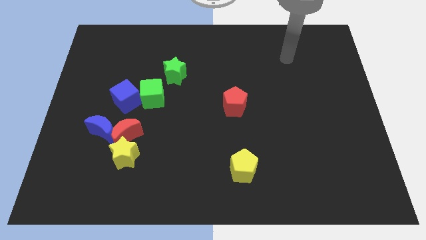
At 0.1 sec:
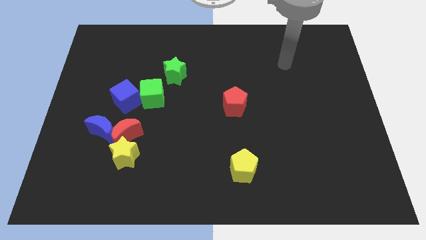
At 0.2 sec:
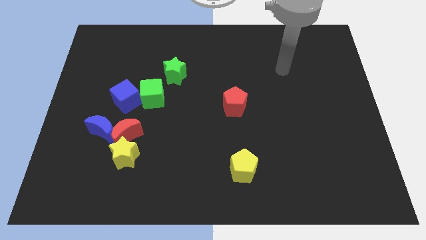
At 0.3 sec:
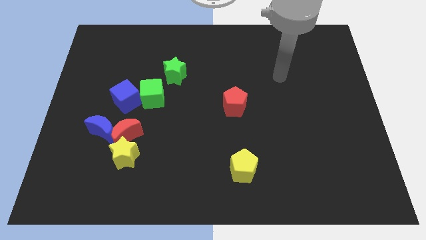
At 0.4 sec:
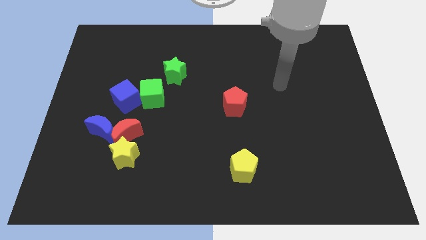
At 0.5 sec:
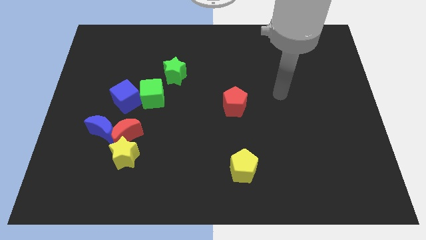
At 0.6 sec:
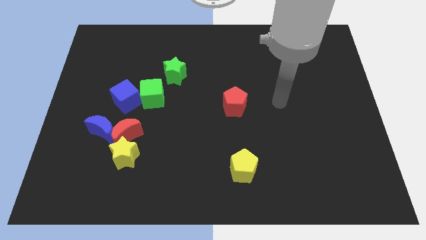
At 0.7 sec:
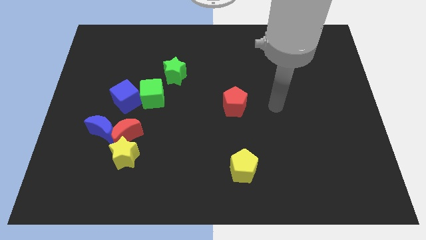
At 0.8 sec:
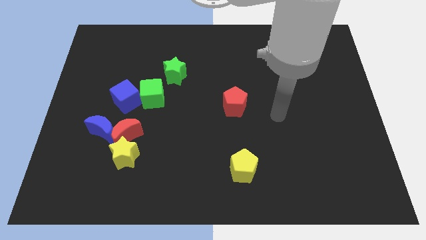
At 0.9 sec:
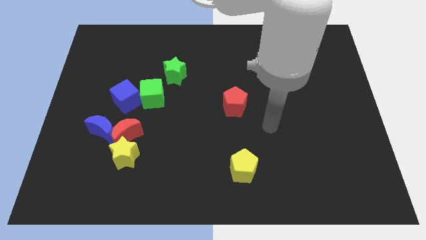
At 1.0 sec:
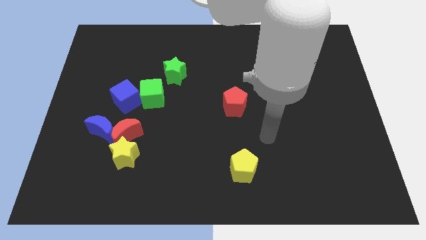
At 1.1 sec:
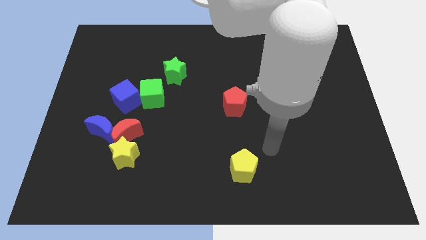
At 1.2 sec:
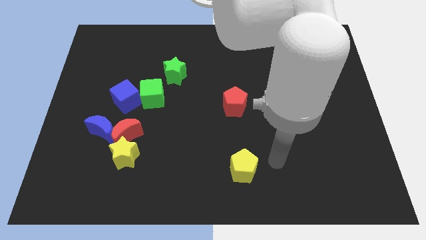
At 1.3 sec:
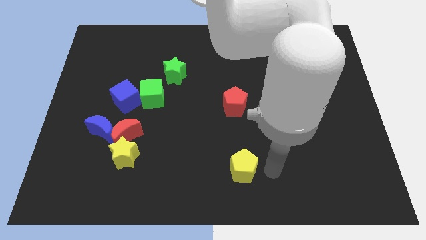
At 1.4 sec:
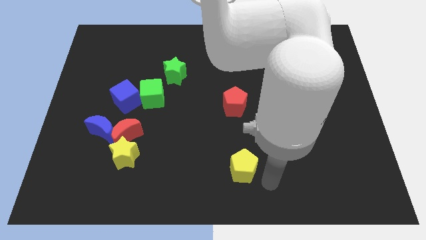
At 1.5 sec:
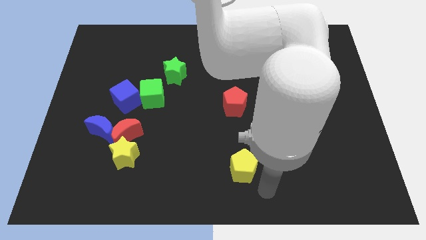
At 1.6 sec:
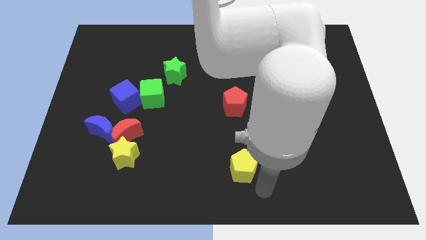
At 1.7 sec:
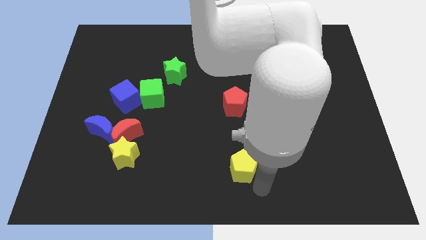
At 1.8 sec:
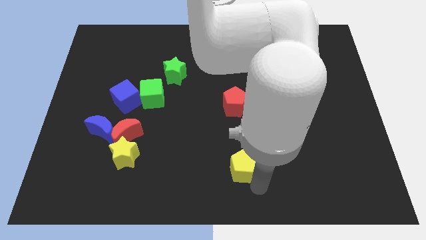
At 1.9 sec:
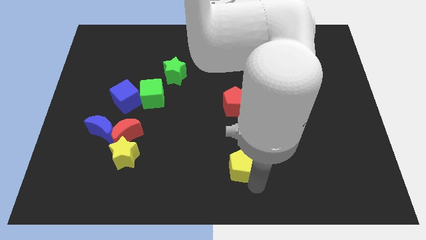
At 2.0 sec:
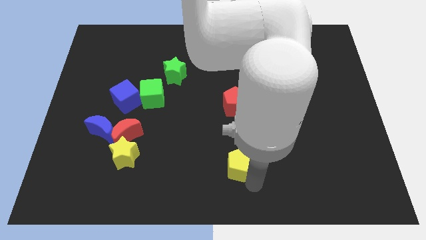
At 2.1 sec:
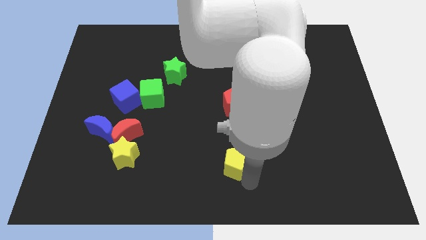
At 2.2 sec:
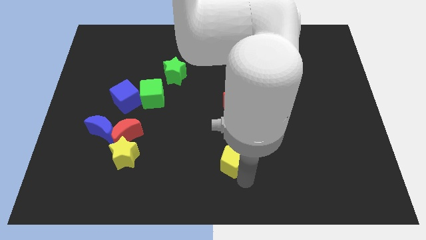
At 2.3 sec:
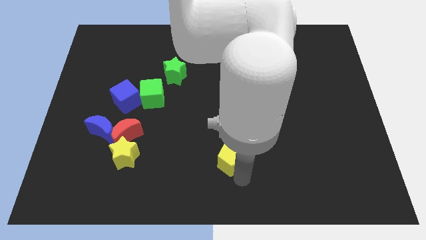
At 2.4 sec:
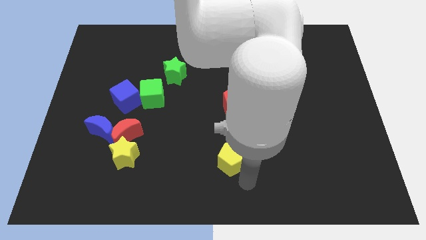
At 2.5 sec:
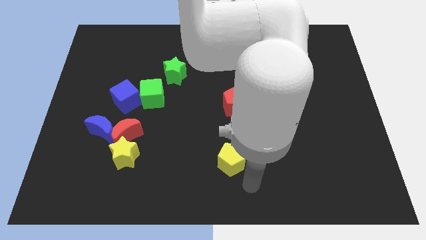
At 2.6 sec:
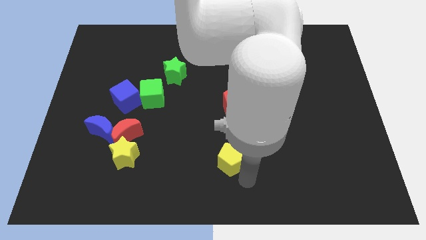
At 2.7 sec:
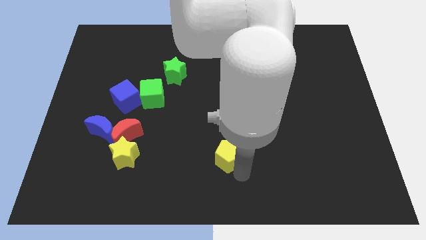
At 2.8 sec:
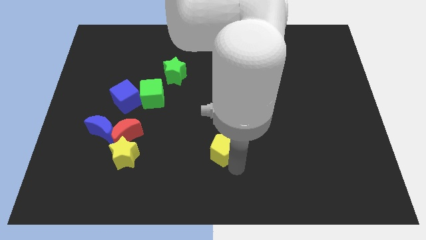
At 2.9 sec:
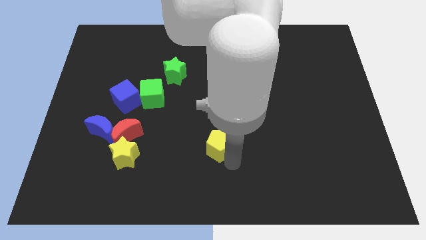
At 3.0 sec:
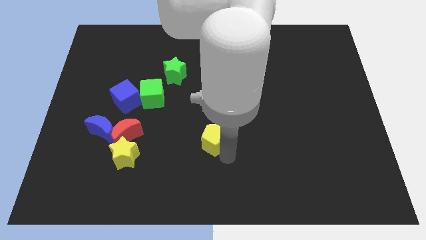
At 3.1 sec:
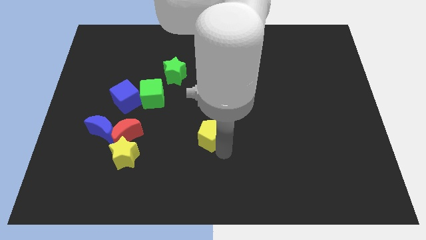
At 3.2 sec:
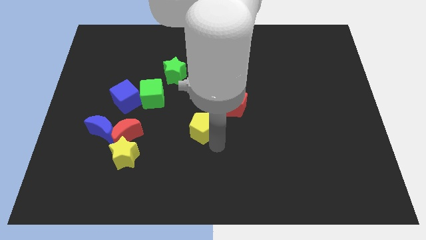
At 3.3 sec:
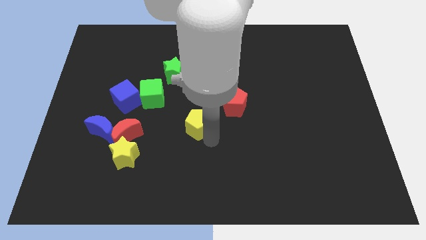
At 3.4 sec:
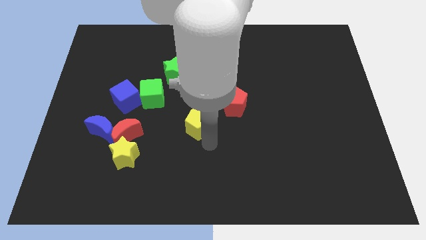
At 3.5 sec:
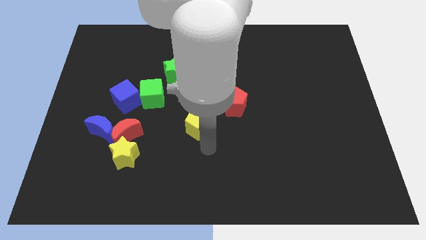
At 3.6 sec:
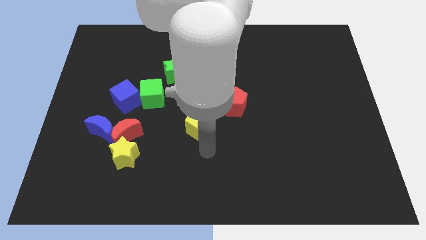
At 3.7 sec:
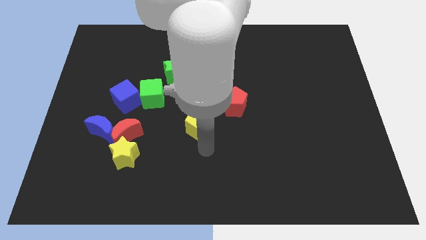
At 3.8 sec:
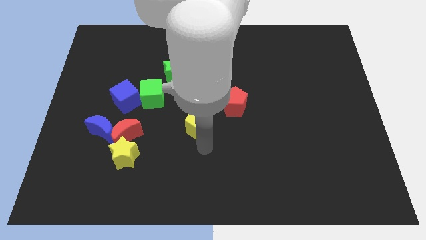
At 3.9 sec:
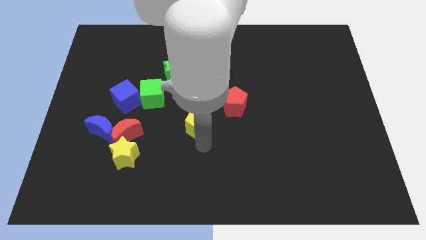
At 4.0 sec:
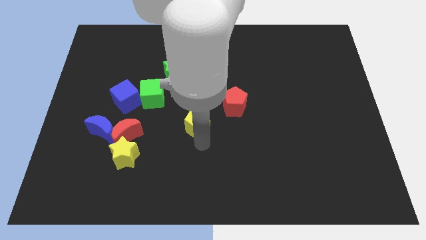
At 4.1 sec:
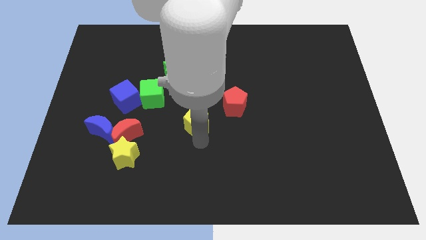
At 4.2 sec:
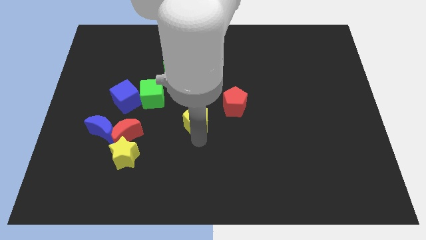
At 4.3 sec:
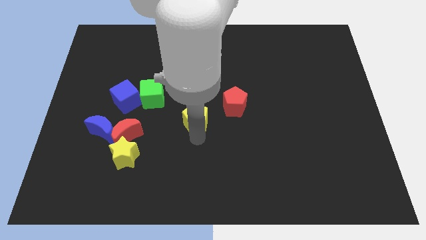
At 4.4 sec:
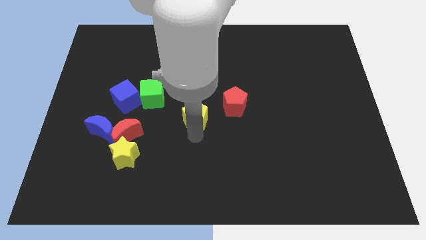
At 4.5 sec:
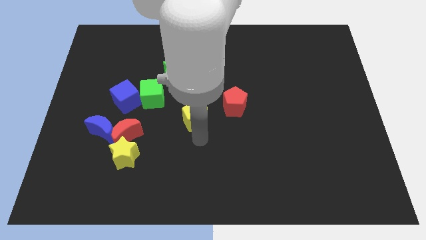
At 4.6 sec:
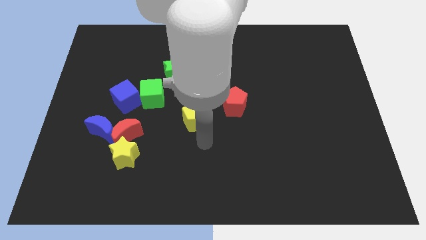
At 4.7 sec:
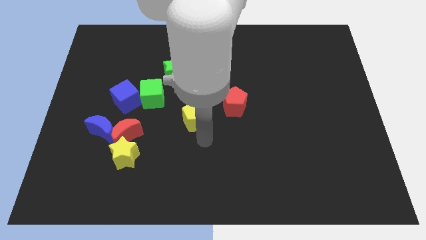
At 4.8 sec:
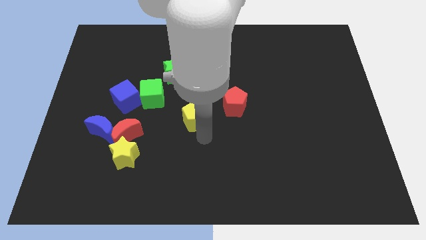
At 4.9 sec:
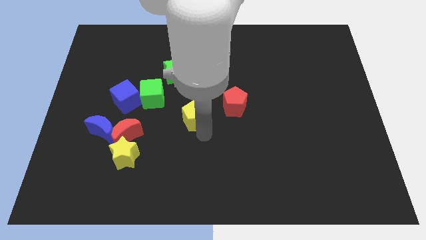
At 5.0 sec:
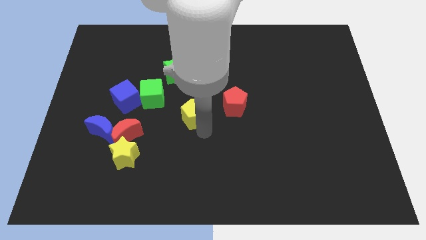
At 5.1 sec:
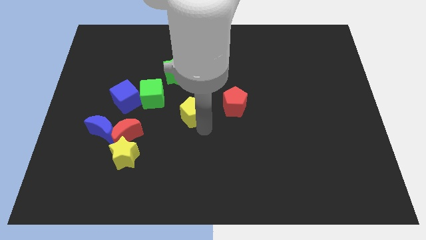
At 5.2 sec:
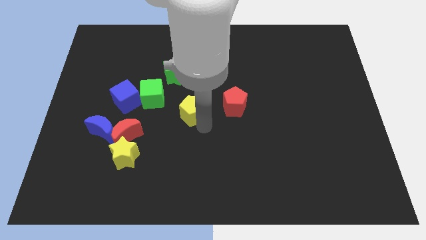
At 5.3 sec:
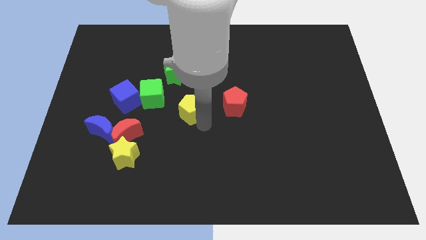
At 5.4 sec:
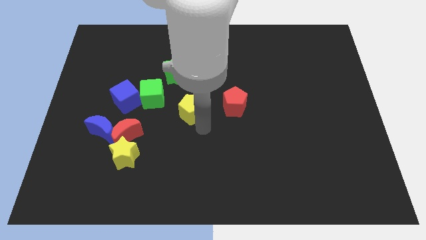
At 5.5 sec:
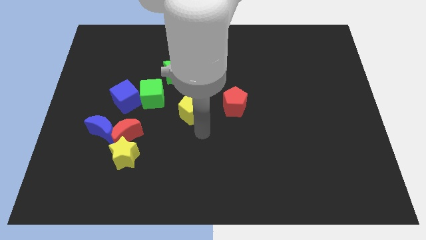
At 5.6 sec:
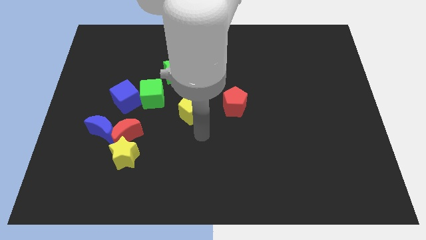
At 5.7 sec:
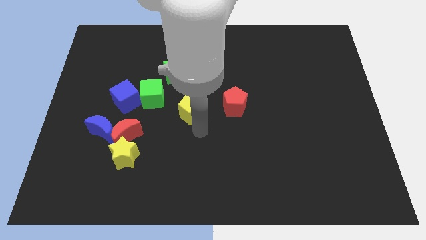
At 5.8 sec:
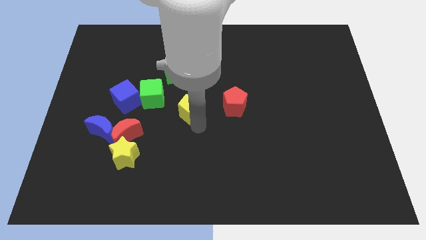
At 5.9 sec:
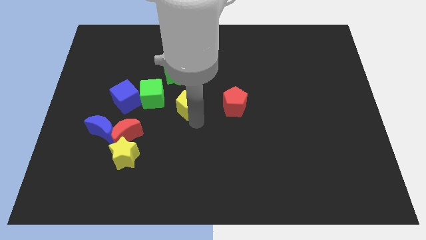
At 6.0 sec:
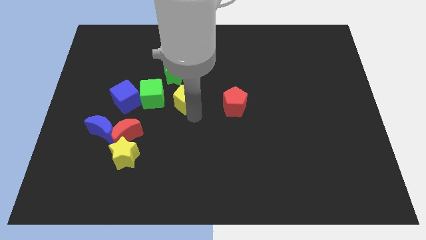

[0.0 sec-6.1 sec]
move the yellow pentagon up and then to the left

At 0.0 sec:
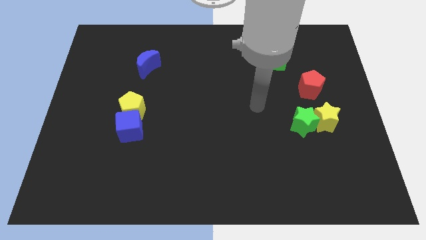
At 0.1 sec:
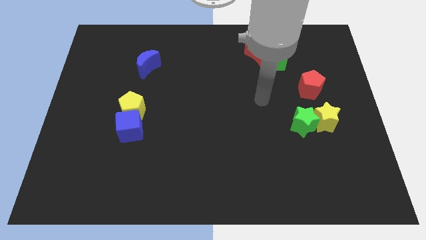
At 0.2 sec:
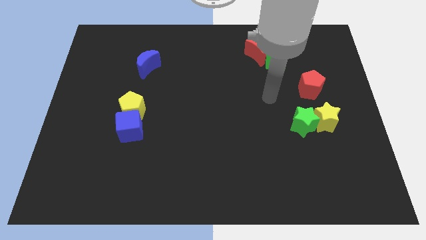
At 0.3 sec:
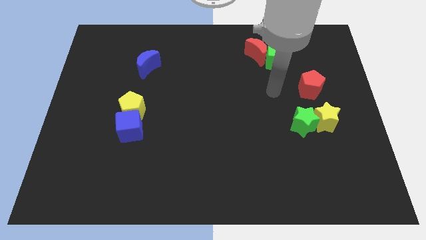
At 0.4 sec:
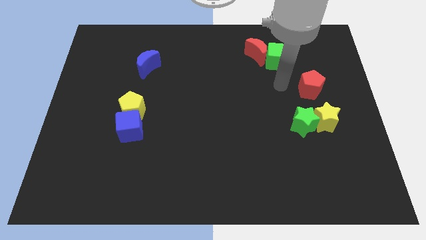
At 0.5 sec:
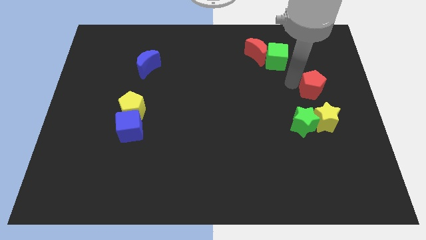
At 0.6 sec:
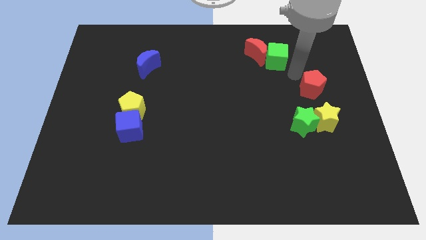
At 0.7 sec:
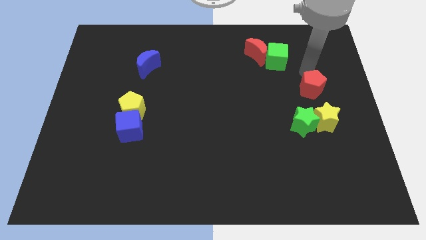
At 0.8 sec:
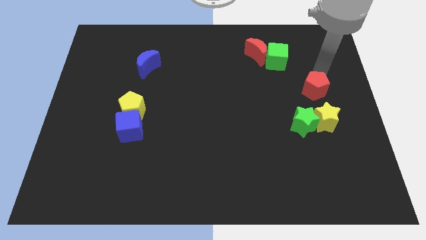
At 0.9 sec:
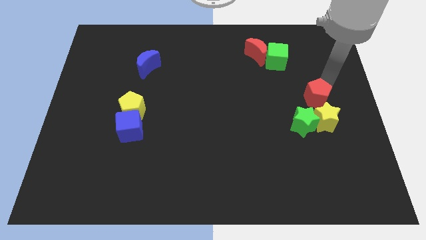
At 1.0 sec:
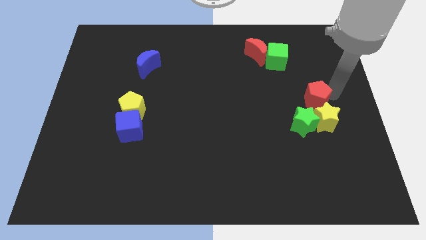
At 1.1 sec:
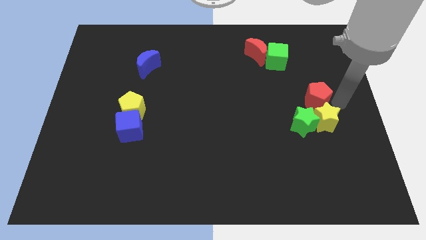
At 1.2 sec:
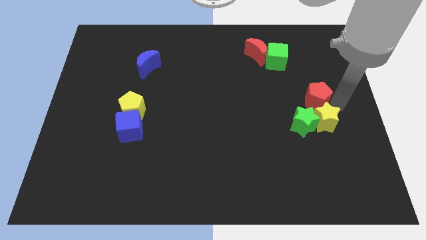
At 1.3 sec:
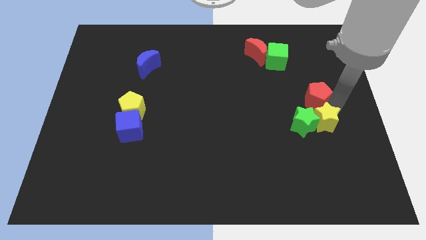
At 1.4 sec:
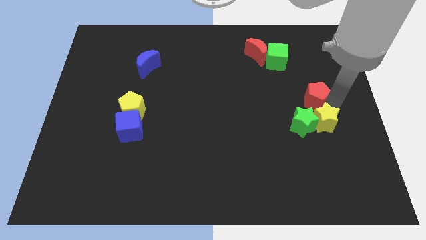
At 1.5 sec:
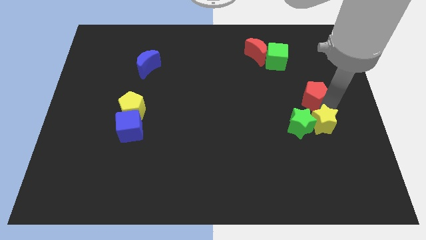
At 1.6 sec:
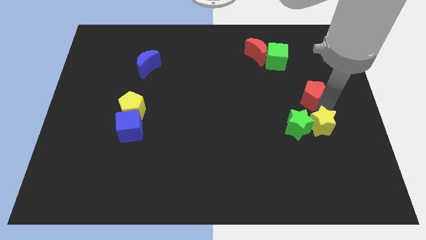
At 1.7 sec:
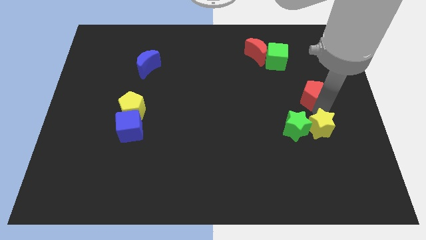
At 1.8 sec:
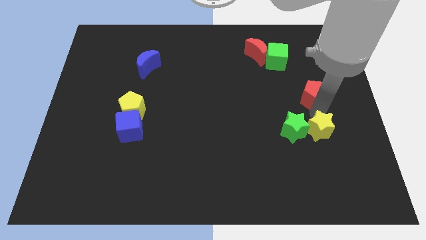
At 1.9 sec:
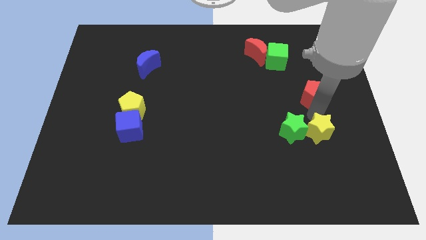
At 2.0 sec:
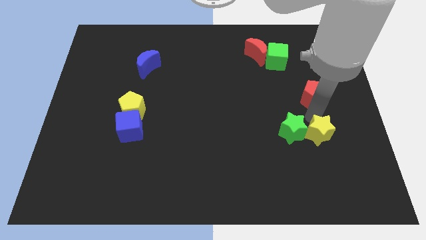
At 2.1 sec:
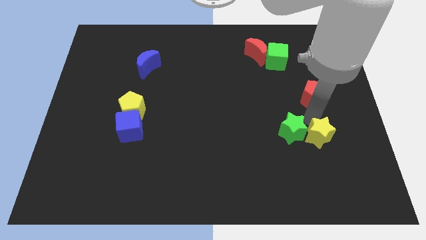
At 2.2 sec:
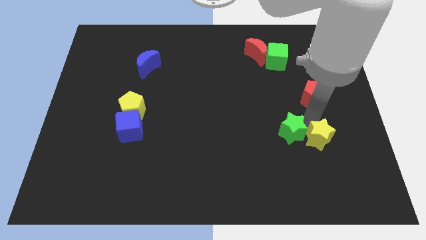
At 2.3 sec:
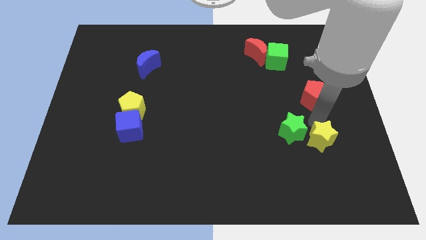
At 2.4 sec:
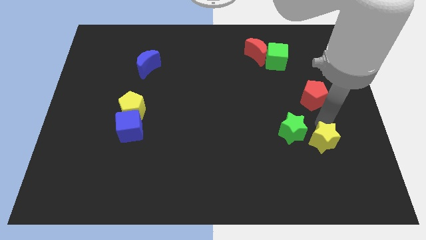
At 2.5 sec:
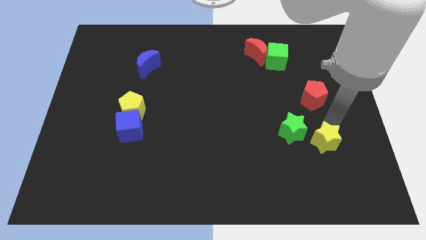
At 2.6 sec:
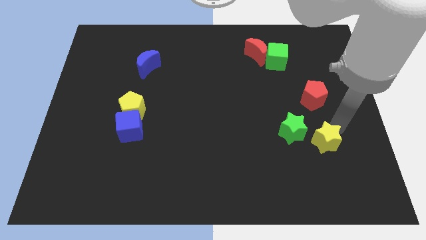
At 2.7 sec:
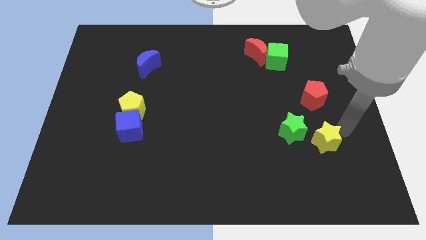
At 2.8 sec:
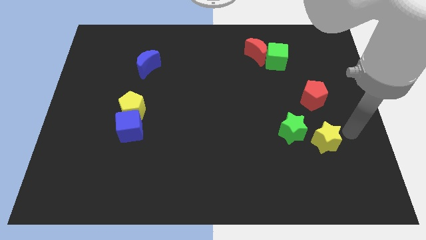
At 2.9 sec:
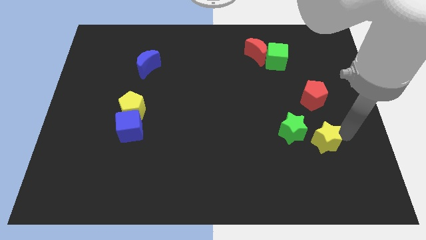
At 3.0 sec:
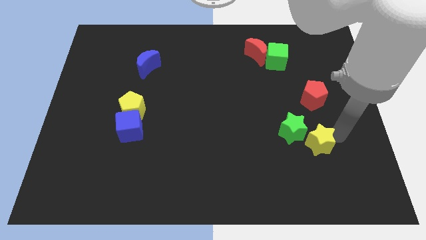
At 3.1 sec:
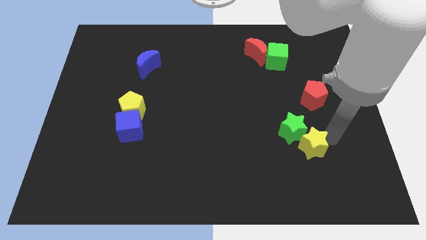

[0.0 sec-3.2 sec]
slightly move the yellow star diagonally downwards and to the left
